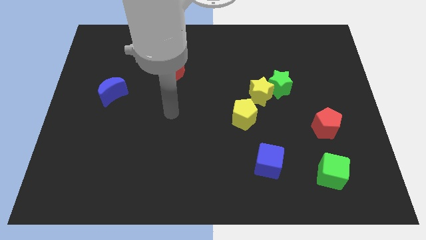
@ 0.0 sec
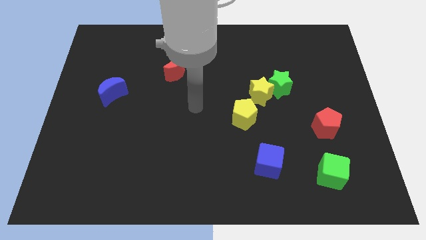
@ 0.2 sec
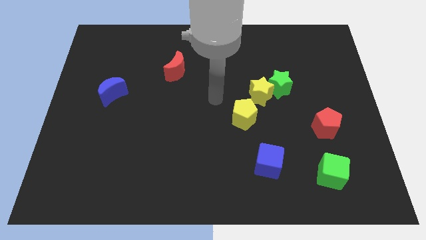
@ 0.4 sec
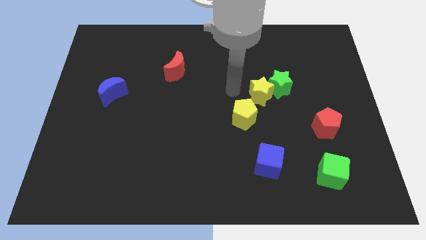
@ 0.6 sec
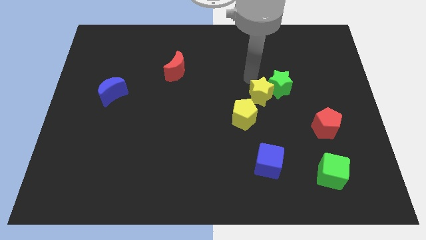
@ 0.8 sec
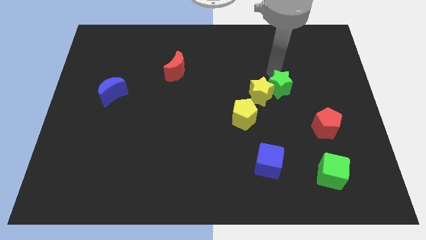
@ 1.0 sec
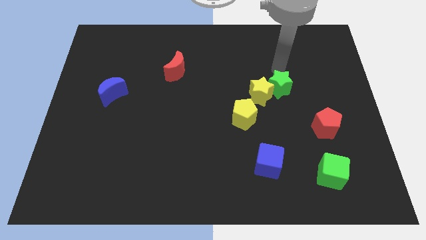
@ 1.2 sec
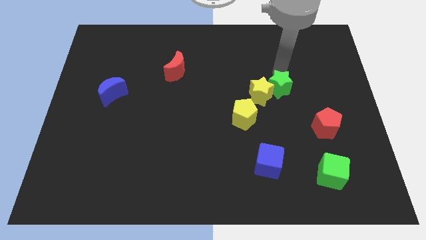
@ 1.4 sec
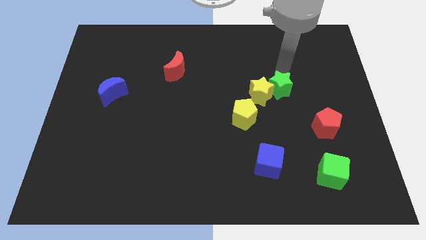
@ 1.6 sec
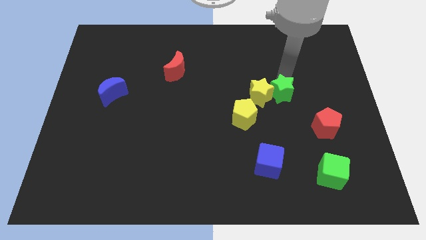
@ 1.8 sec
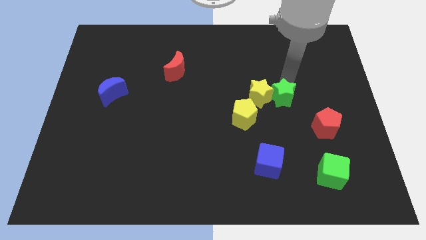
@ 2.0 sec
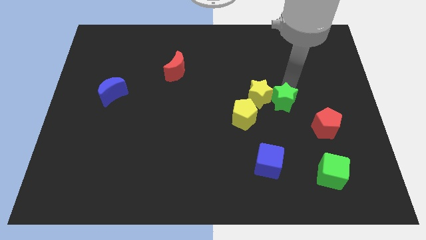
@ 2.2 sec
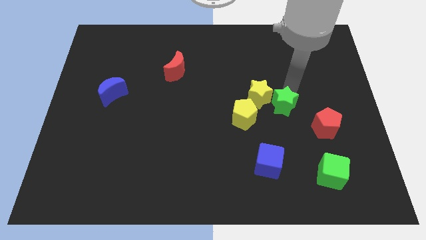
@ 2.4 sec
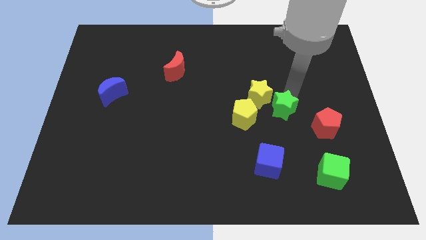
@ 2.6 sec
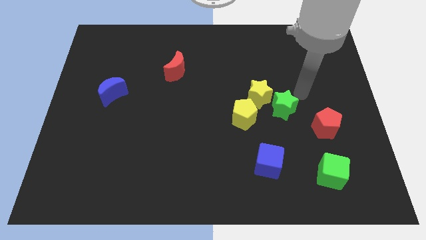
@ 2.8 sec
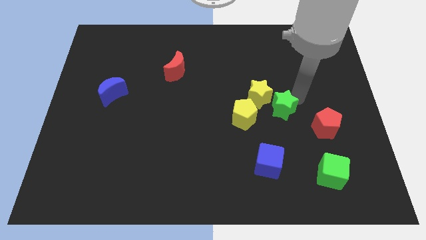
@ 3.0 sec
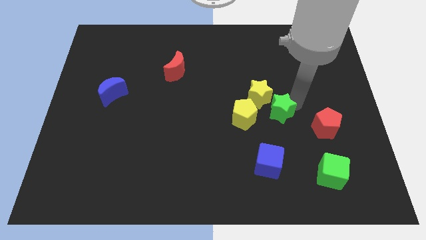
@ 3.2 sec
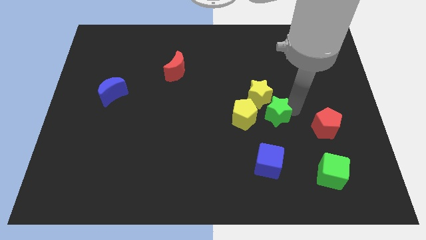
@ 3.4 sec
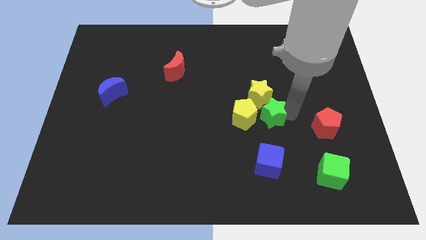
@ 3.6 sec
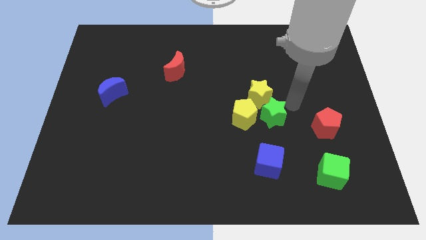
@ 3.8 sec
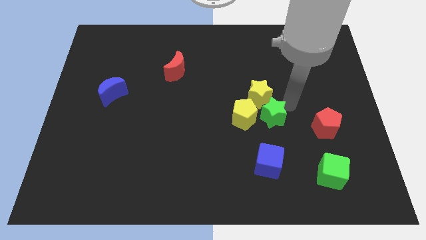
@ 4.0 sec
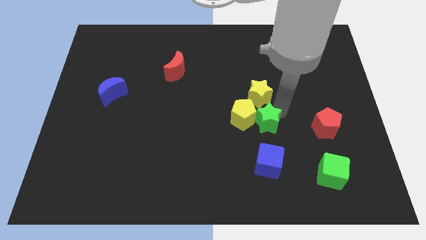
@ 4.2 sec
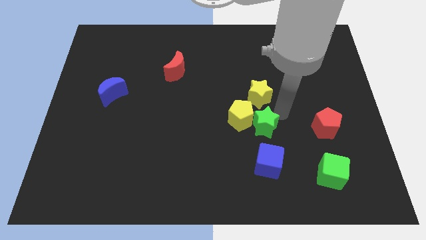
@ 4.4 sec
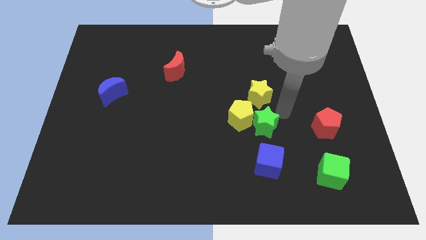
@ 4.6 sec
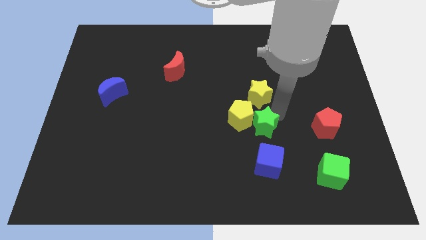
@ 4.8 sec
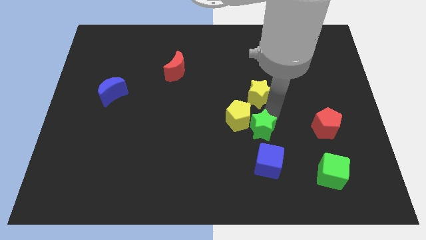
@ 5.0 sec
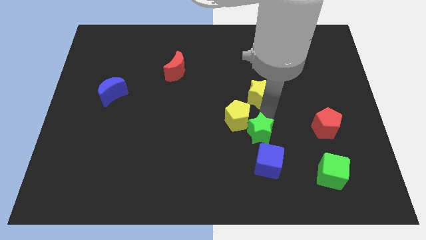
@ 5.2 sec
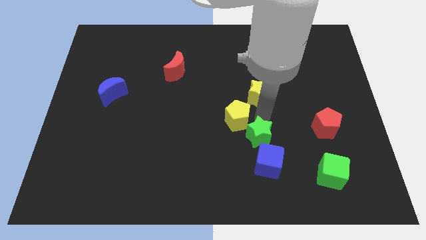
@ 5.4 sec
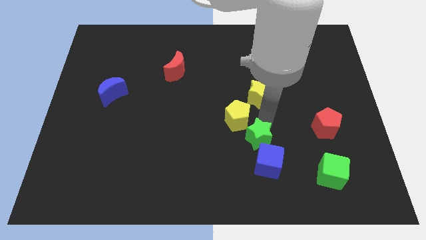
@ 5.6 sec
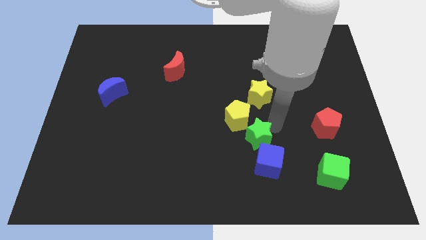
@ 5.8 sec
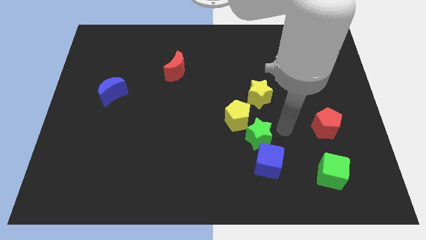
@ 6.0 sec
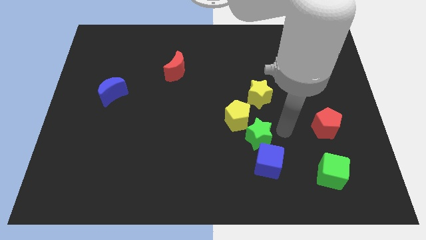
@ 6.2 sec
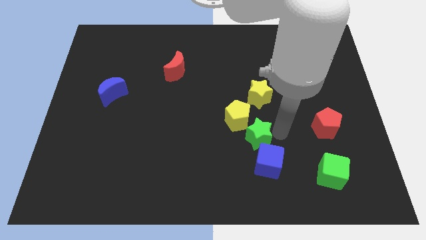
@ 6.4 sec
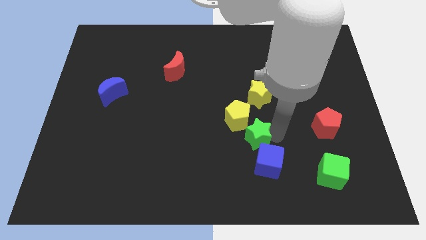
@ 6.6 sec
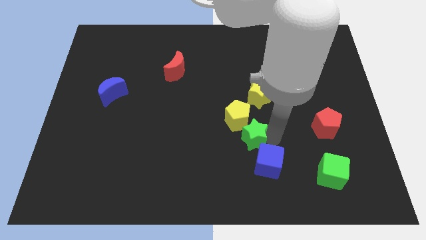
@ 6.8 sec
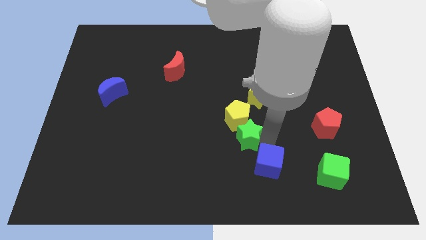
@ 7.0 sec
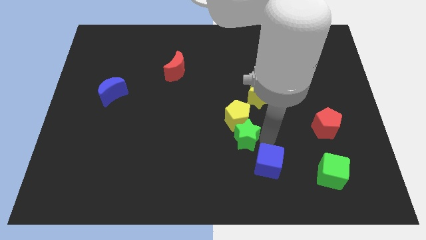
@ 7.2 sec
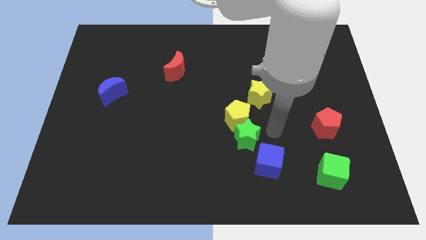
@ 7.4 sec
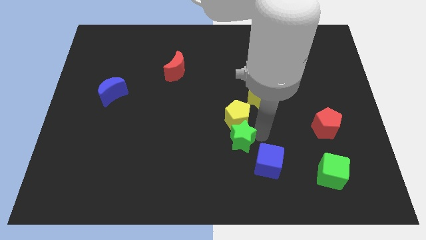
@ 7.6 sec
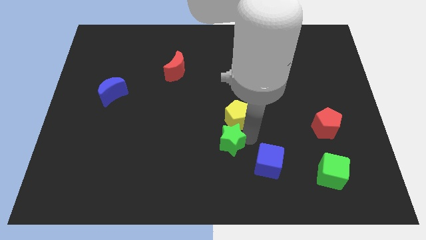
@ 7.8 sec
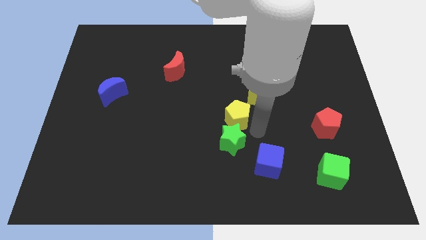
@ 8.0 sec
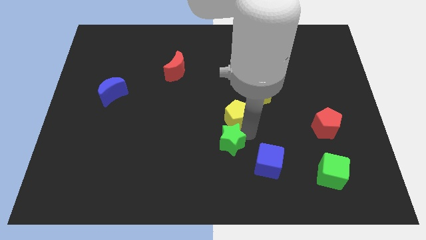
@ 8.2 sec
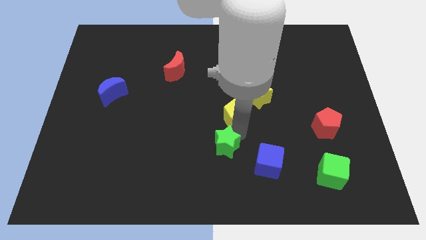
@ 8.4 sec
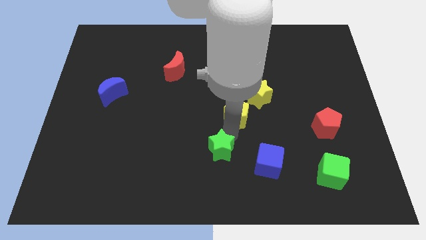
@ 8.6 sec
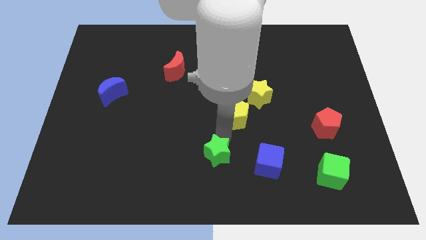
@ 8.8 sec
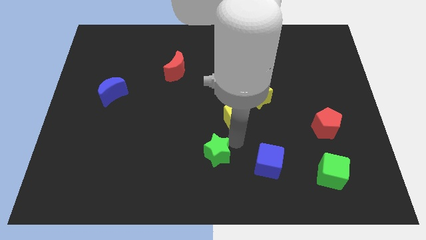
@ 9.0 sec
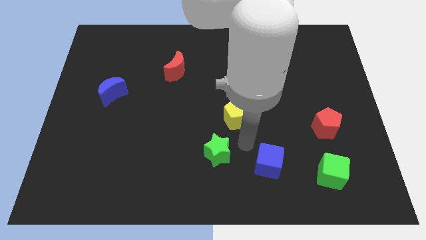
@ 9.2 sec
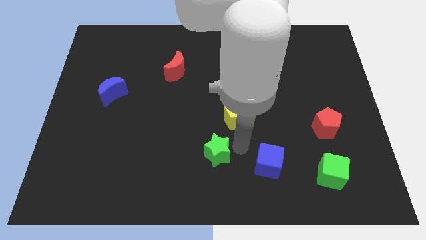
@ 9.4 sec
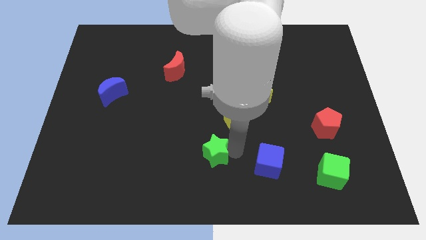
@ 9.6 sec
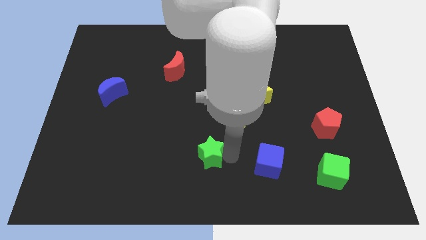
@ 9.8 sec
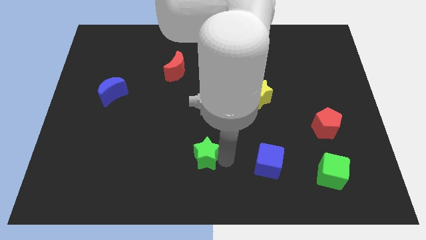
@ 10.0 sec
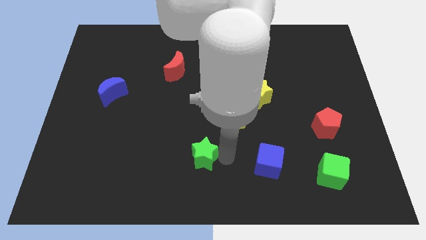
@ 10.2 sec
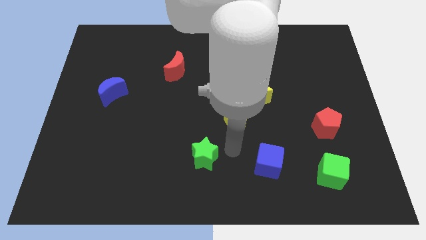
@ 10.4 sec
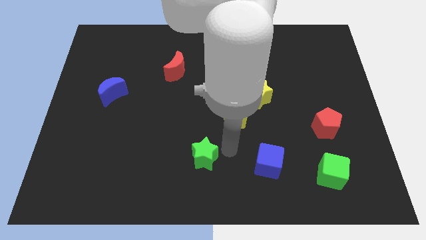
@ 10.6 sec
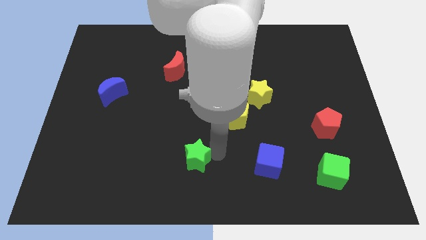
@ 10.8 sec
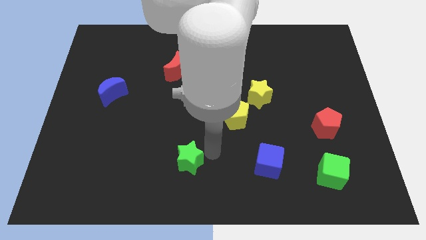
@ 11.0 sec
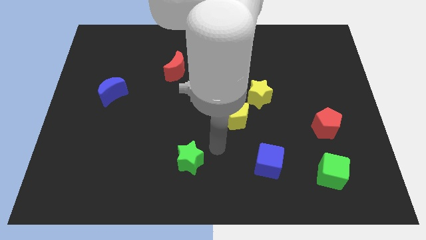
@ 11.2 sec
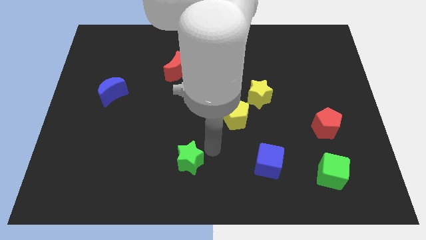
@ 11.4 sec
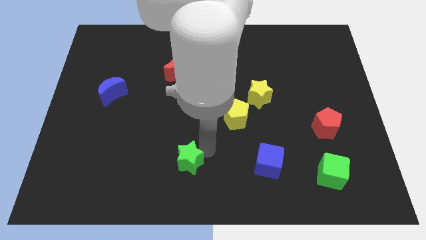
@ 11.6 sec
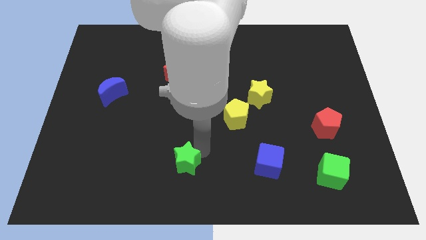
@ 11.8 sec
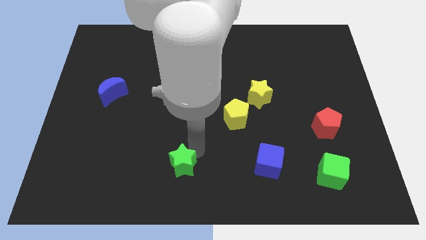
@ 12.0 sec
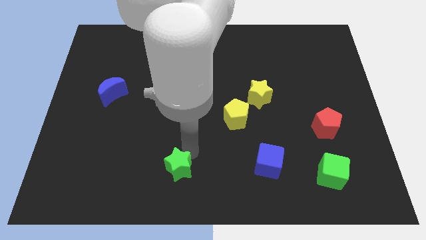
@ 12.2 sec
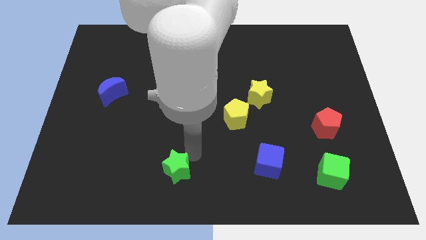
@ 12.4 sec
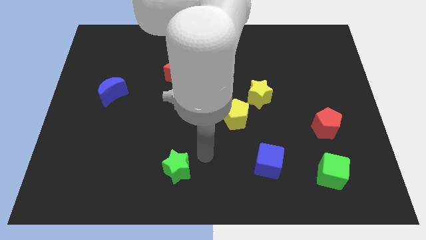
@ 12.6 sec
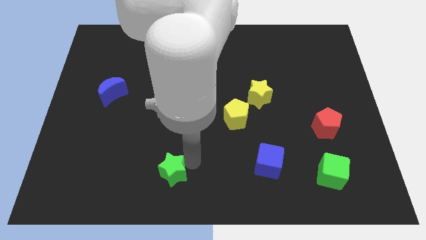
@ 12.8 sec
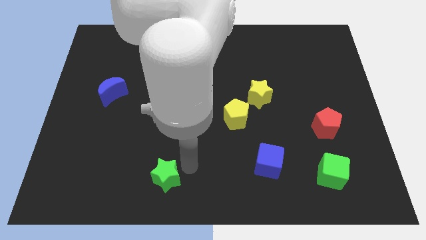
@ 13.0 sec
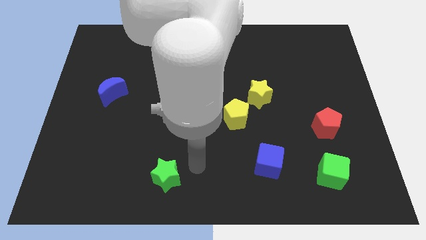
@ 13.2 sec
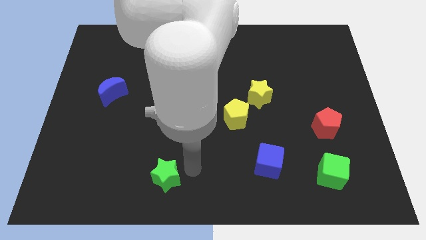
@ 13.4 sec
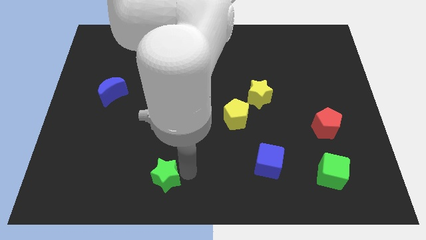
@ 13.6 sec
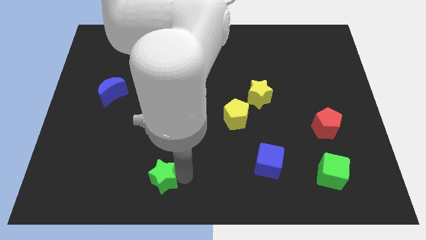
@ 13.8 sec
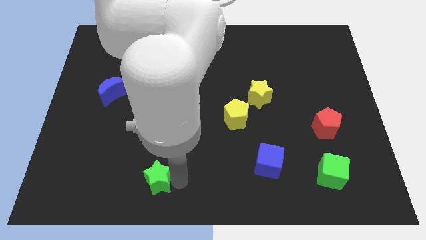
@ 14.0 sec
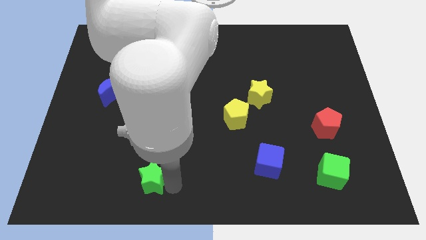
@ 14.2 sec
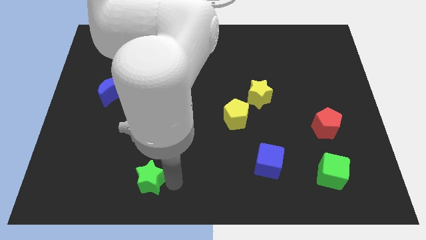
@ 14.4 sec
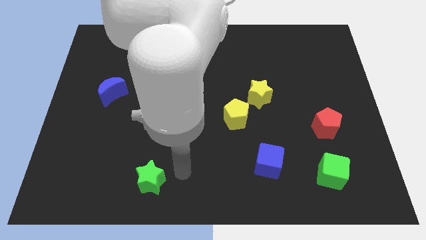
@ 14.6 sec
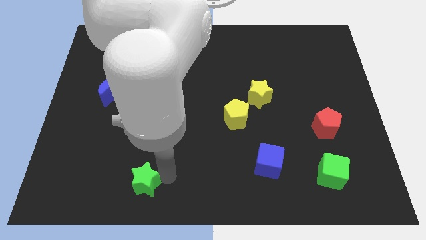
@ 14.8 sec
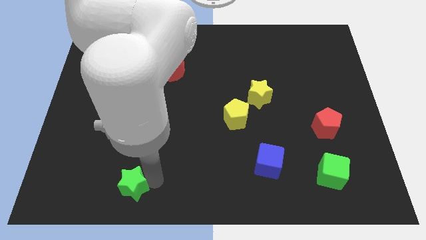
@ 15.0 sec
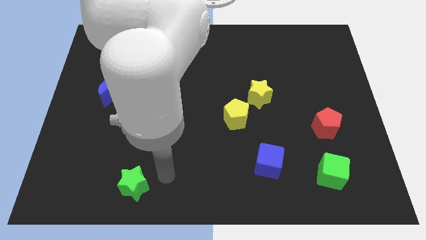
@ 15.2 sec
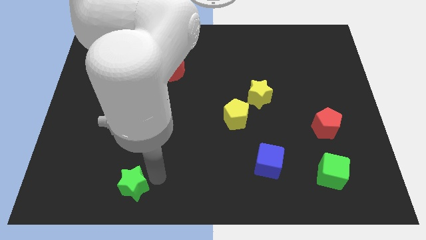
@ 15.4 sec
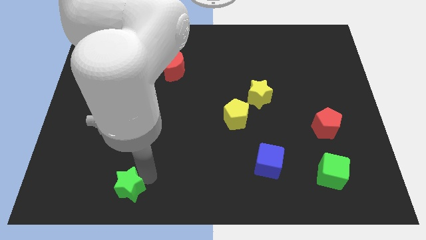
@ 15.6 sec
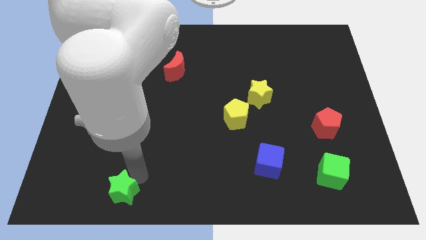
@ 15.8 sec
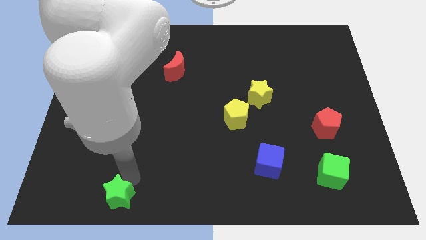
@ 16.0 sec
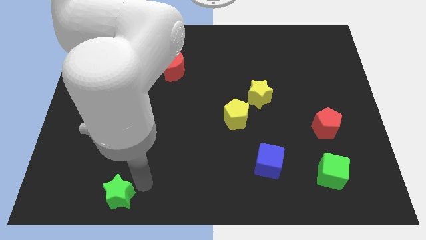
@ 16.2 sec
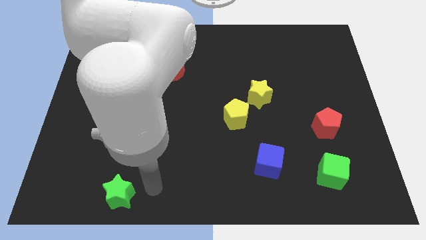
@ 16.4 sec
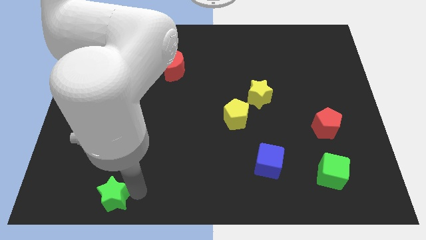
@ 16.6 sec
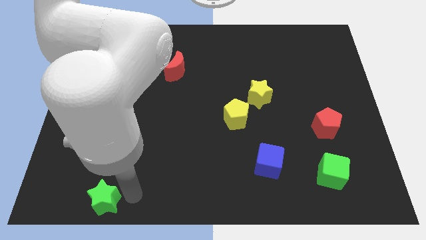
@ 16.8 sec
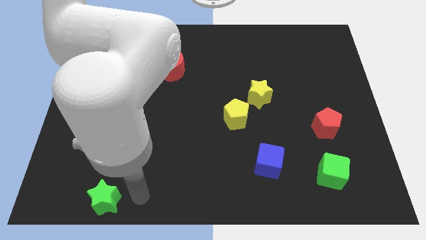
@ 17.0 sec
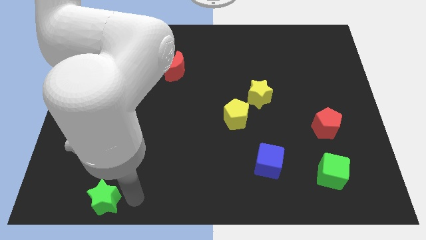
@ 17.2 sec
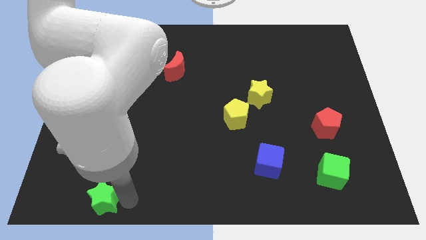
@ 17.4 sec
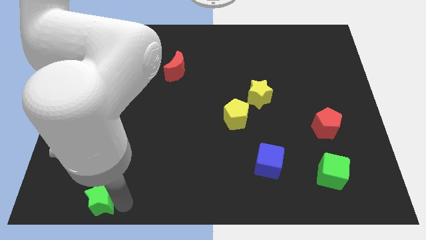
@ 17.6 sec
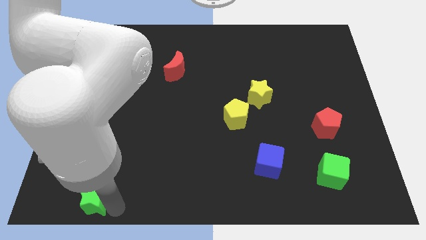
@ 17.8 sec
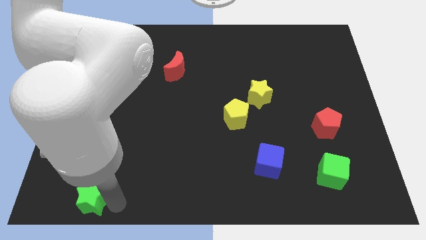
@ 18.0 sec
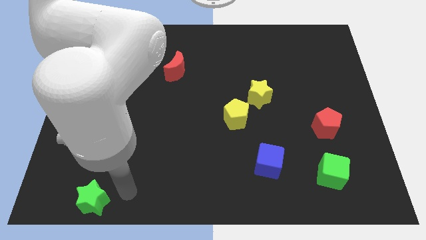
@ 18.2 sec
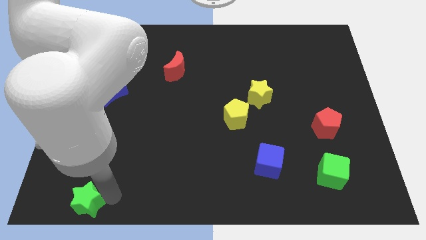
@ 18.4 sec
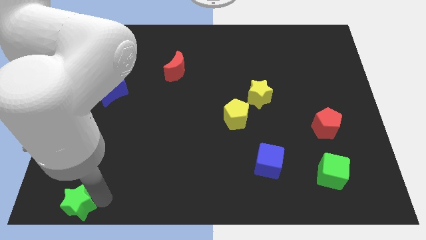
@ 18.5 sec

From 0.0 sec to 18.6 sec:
move the green star to the bottom left
